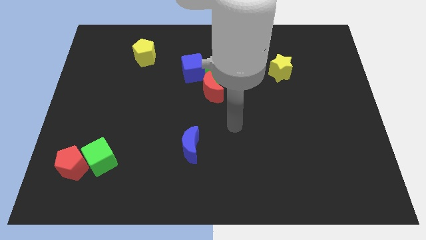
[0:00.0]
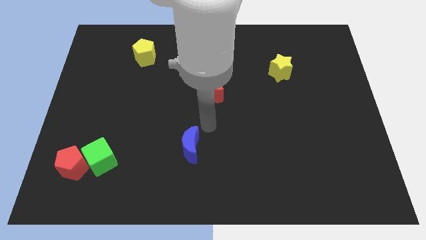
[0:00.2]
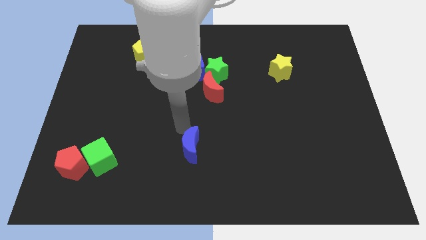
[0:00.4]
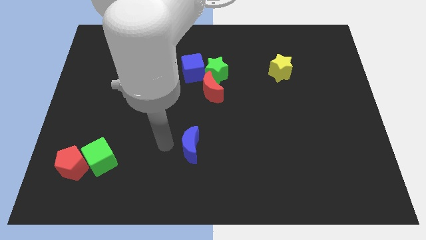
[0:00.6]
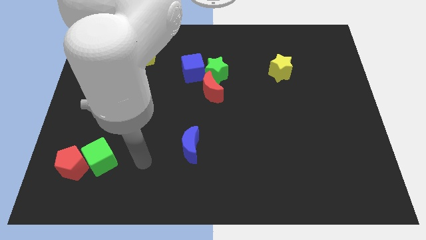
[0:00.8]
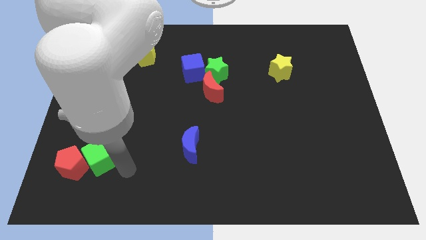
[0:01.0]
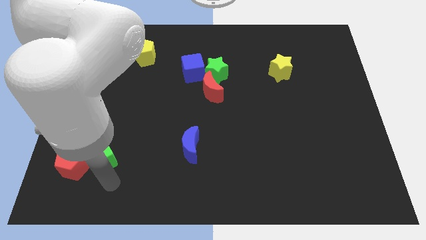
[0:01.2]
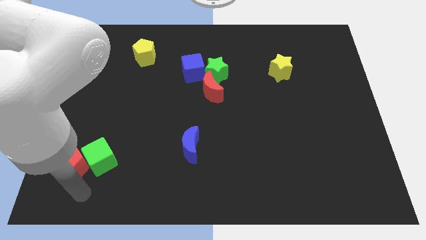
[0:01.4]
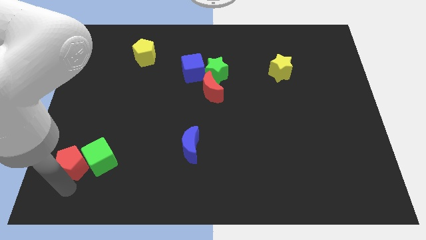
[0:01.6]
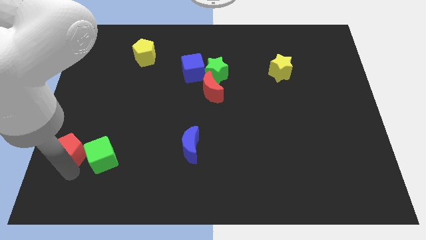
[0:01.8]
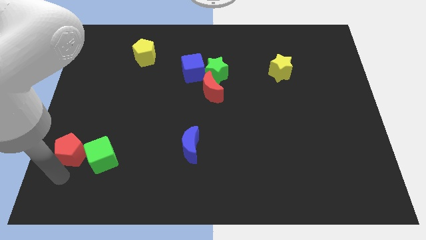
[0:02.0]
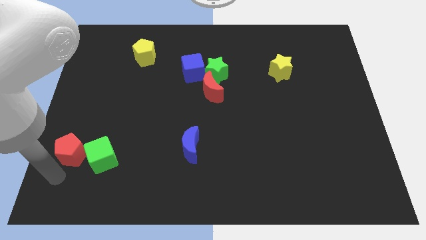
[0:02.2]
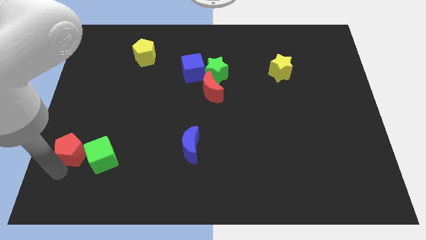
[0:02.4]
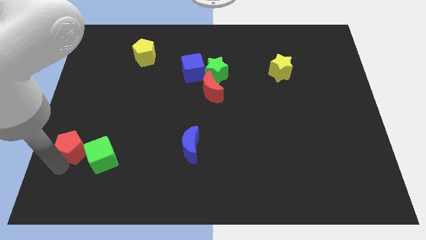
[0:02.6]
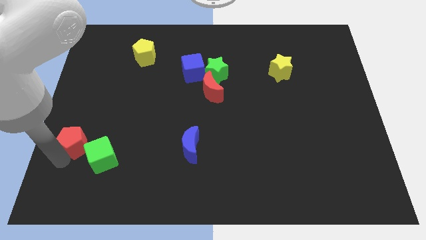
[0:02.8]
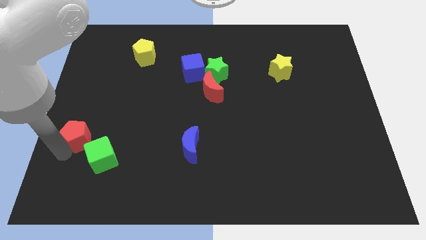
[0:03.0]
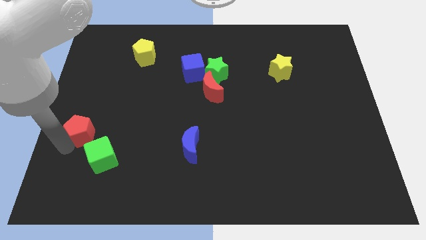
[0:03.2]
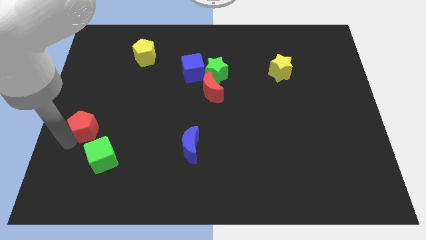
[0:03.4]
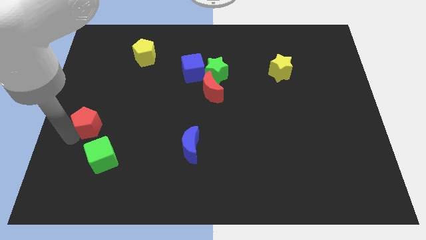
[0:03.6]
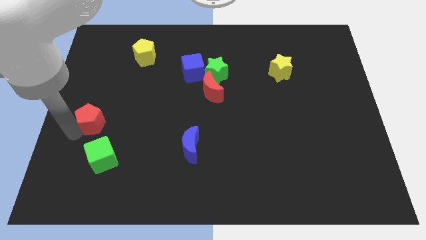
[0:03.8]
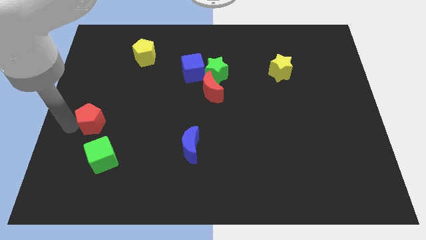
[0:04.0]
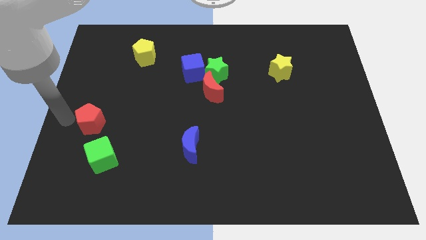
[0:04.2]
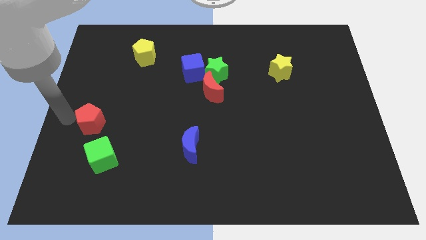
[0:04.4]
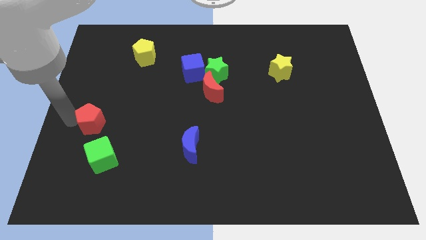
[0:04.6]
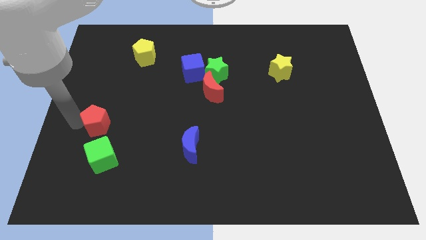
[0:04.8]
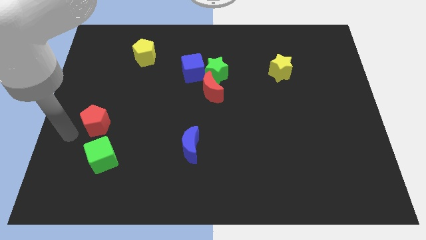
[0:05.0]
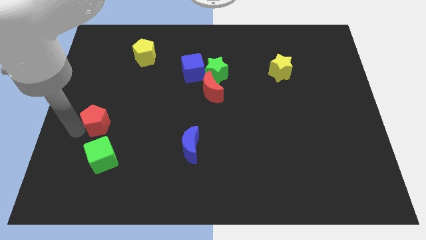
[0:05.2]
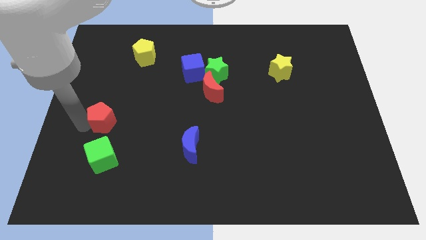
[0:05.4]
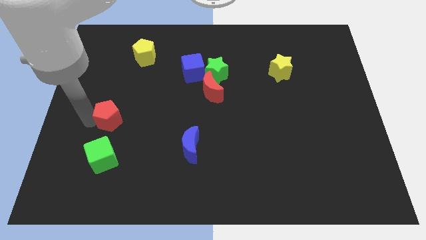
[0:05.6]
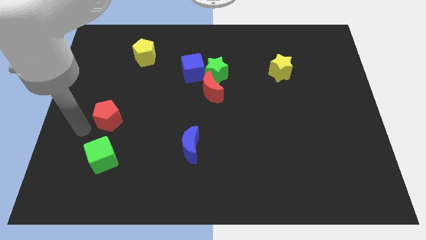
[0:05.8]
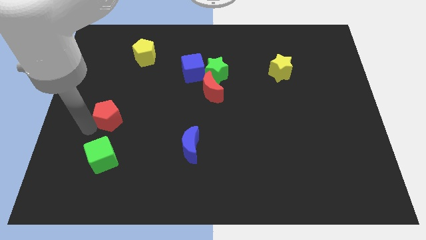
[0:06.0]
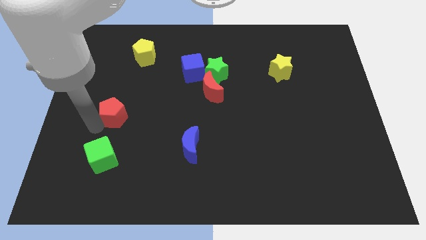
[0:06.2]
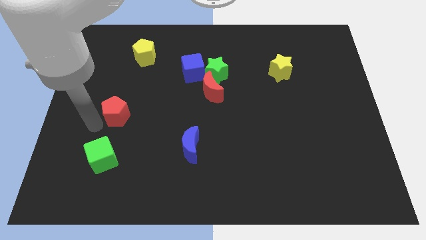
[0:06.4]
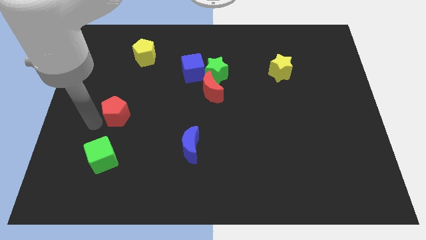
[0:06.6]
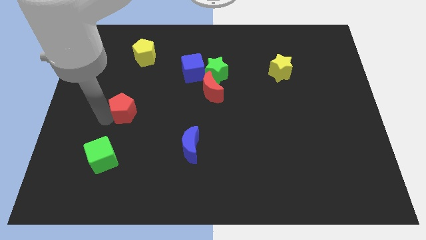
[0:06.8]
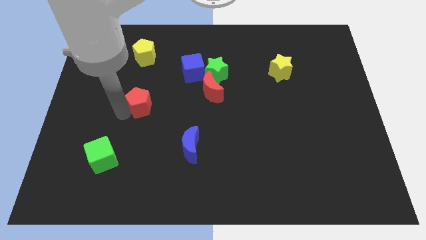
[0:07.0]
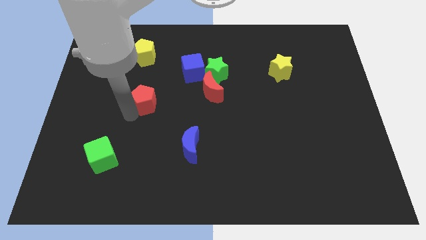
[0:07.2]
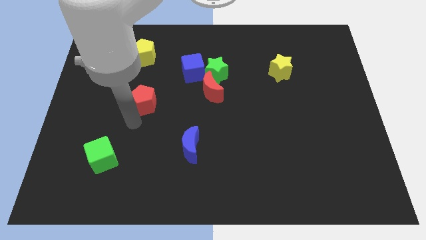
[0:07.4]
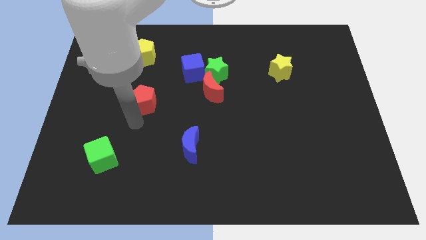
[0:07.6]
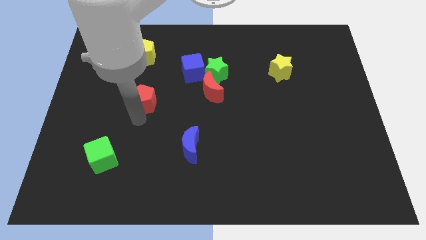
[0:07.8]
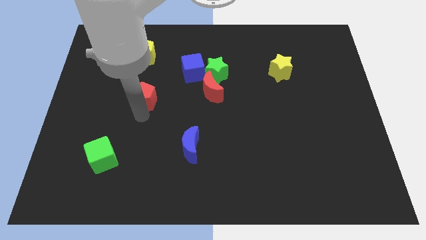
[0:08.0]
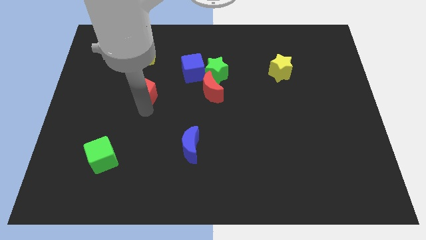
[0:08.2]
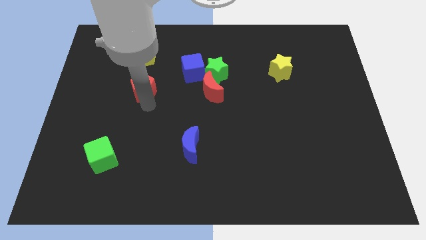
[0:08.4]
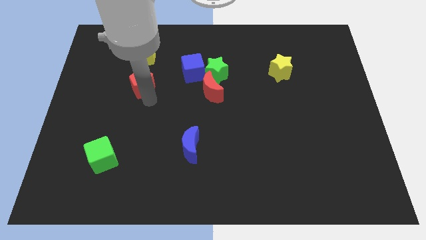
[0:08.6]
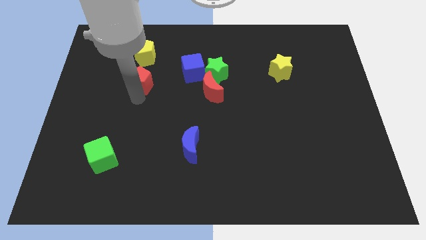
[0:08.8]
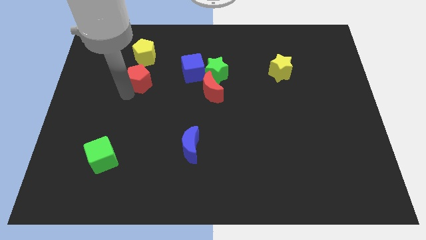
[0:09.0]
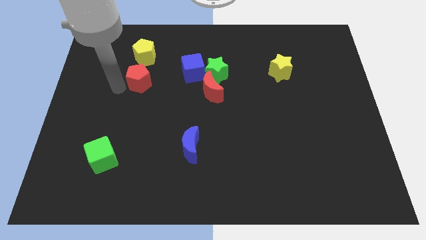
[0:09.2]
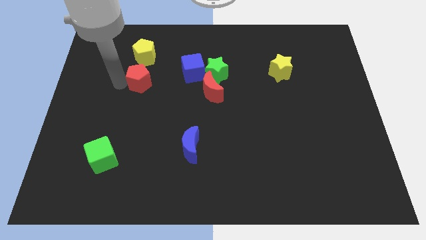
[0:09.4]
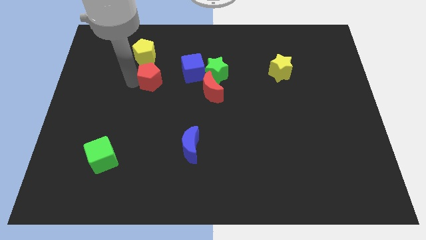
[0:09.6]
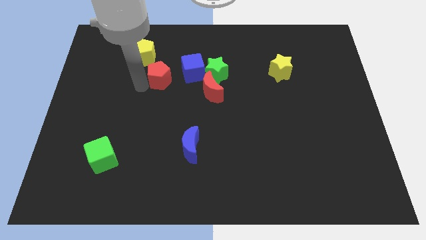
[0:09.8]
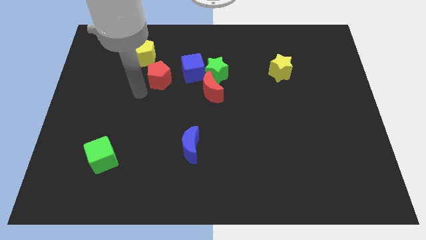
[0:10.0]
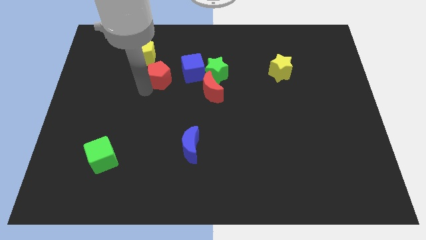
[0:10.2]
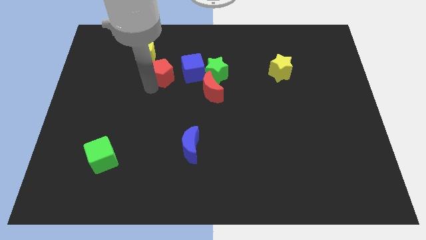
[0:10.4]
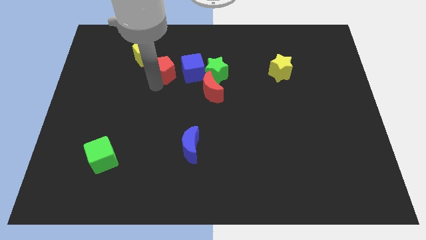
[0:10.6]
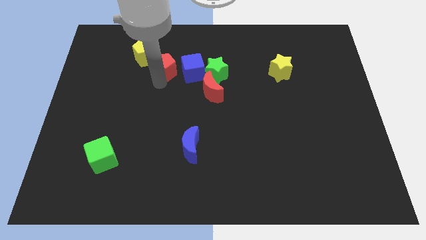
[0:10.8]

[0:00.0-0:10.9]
move the red pentagon just right of the yellow pentagon

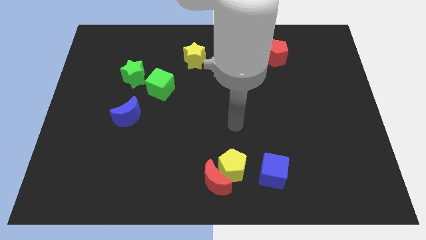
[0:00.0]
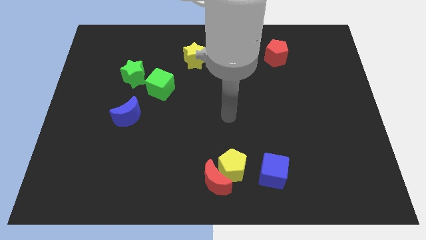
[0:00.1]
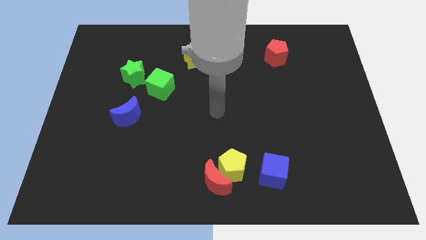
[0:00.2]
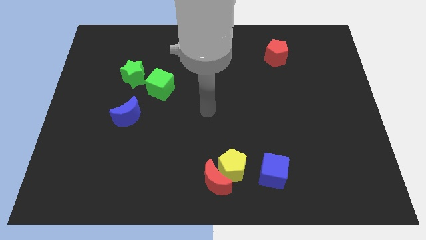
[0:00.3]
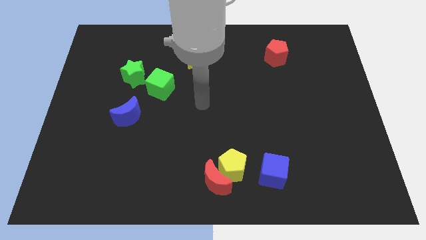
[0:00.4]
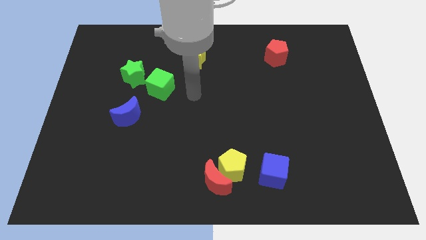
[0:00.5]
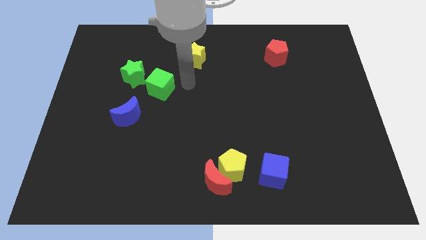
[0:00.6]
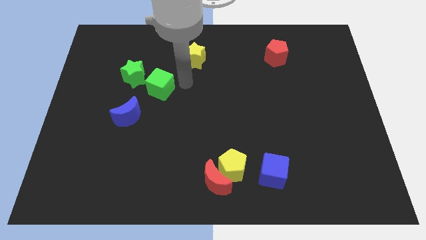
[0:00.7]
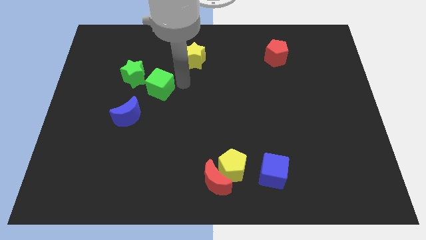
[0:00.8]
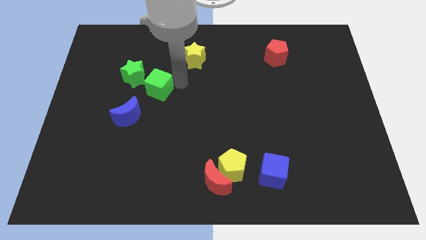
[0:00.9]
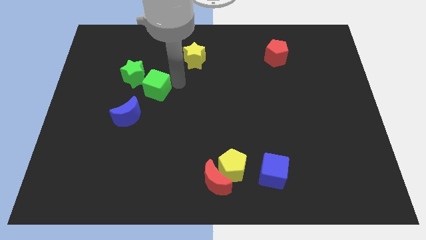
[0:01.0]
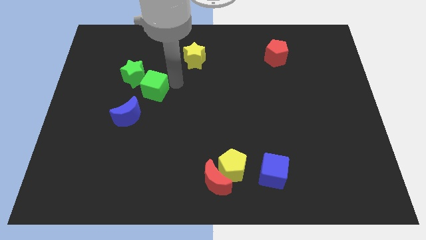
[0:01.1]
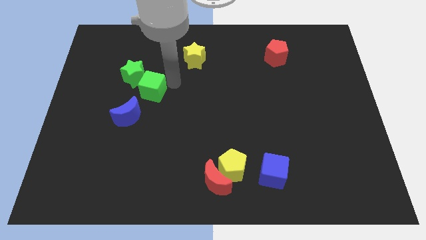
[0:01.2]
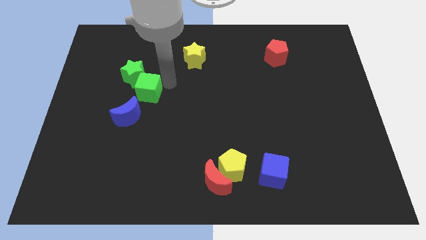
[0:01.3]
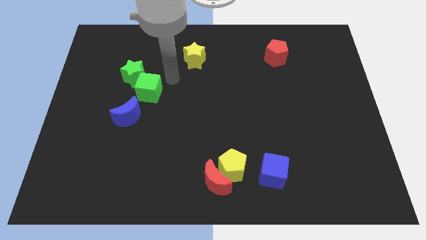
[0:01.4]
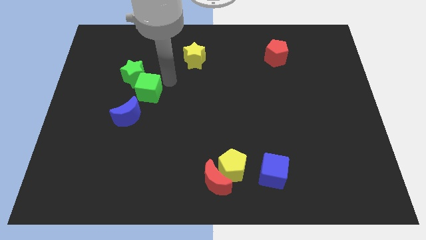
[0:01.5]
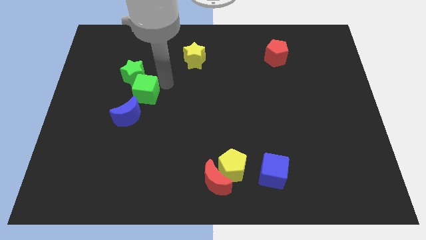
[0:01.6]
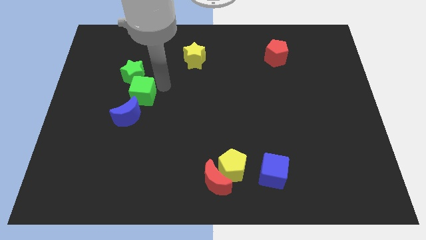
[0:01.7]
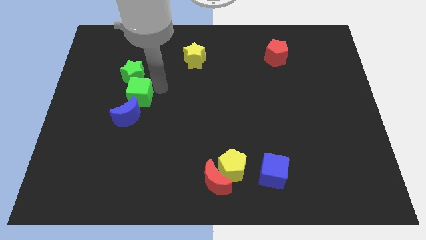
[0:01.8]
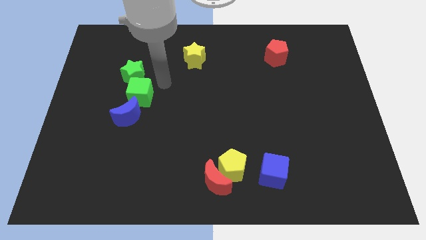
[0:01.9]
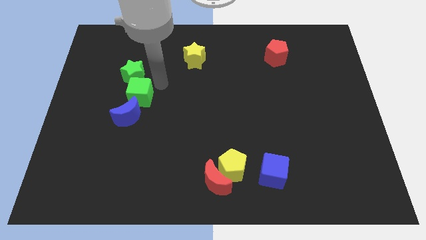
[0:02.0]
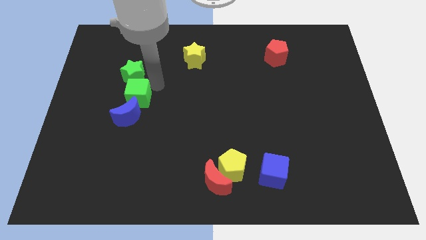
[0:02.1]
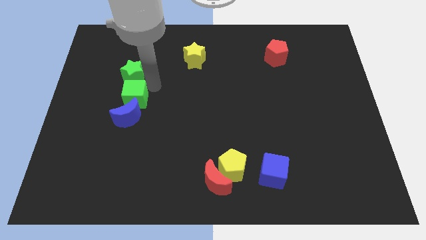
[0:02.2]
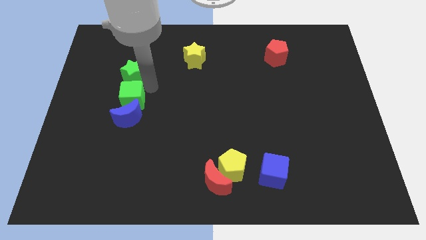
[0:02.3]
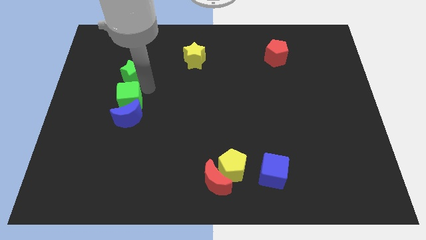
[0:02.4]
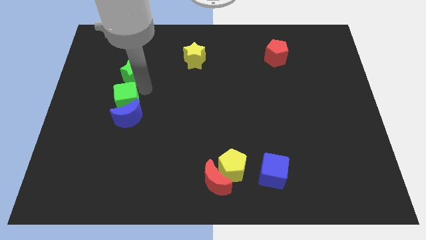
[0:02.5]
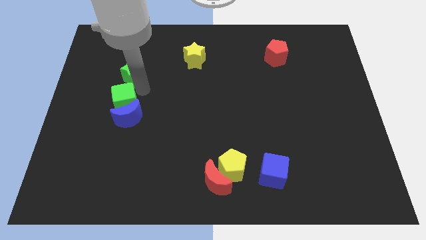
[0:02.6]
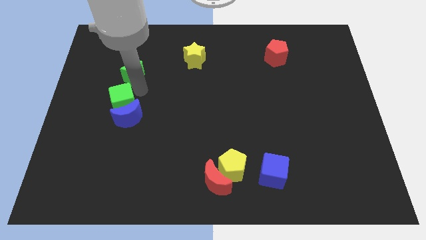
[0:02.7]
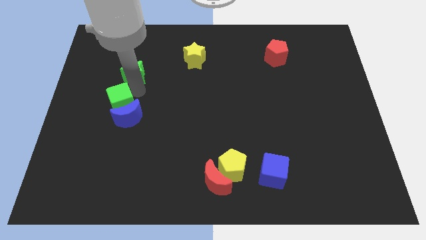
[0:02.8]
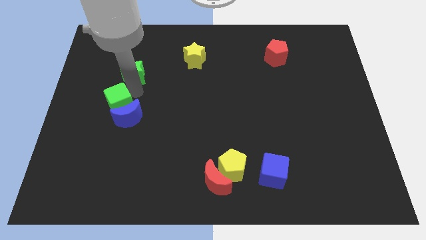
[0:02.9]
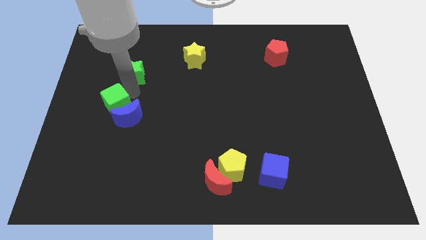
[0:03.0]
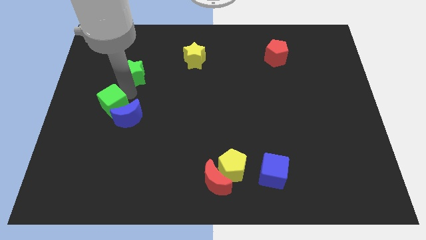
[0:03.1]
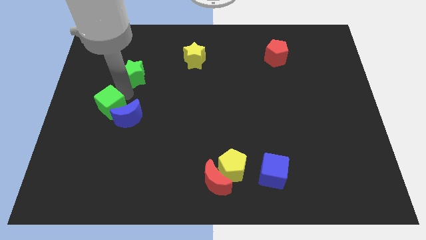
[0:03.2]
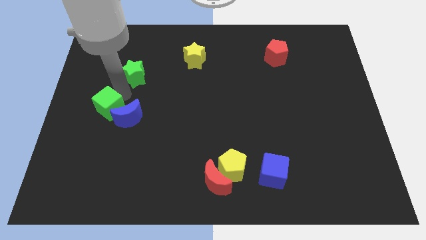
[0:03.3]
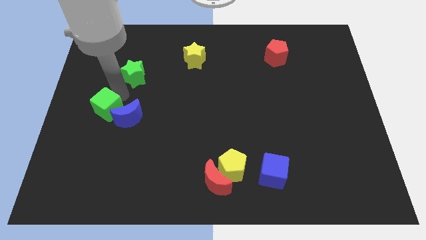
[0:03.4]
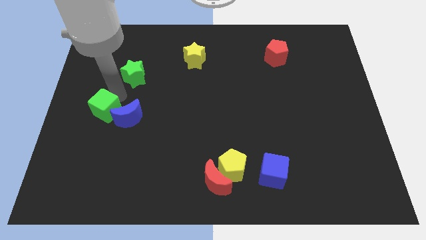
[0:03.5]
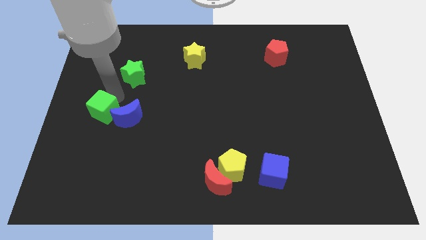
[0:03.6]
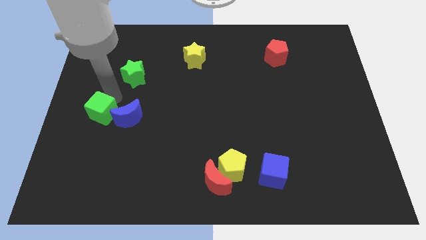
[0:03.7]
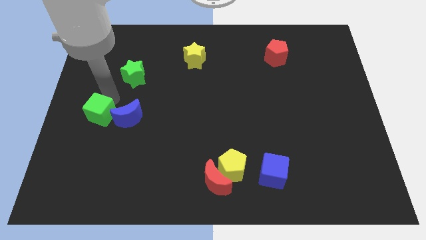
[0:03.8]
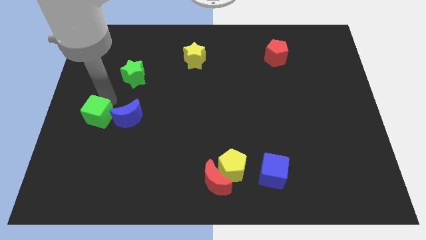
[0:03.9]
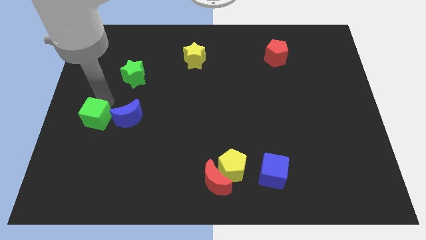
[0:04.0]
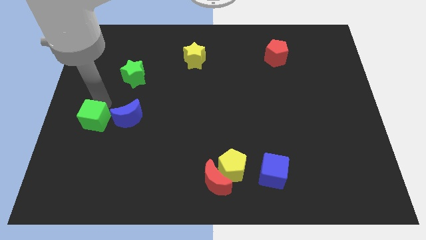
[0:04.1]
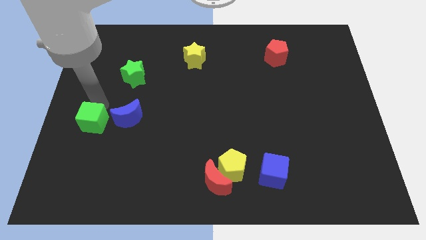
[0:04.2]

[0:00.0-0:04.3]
slide the green cube to the bottom left side of the blue moon
